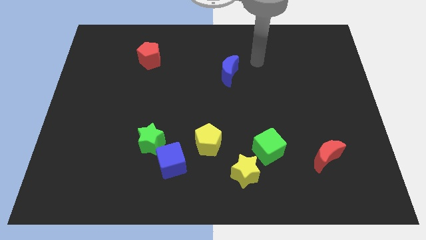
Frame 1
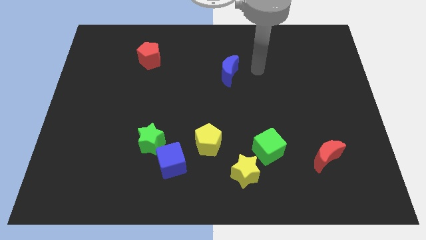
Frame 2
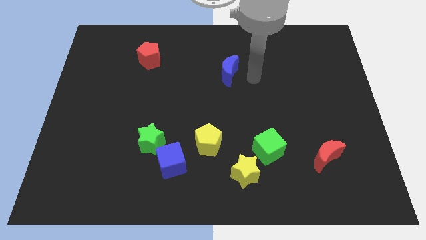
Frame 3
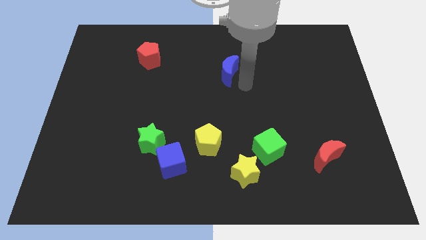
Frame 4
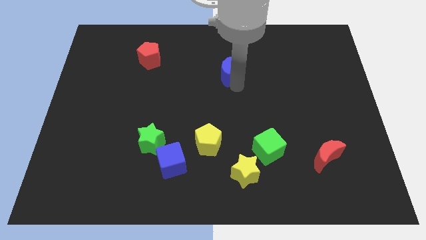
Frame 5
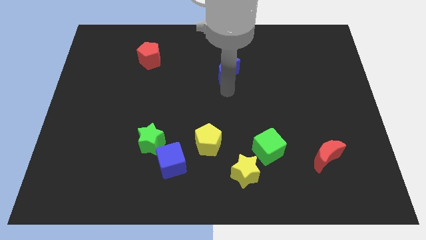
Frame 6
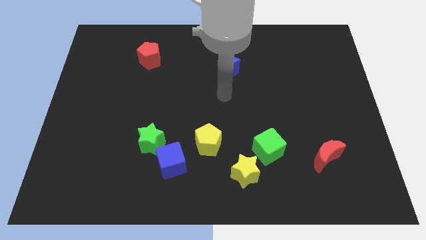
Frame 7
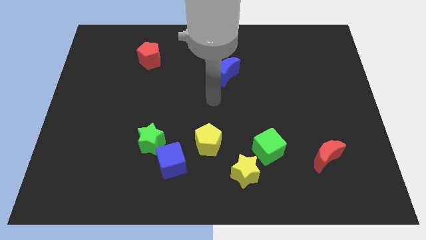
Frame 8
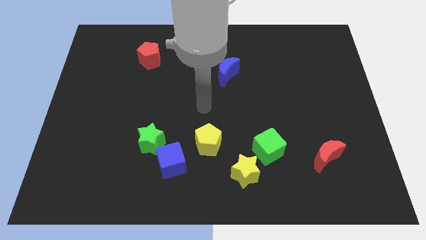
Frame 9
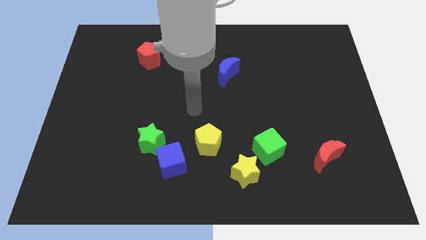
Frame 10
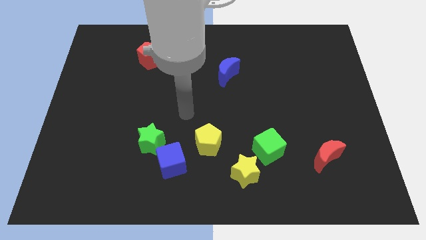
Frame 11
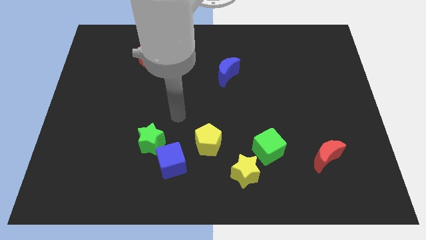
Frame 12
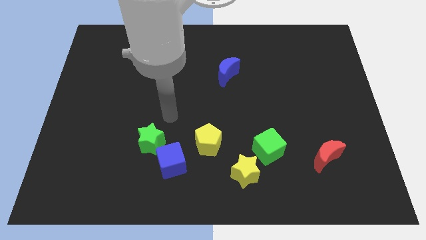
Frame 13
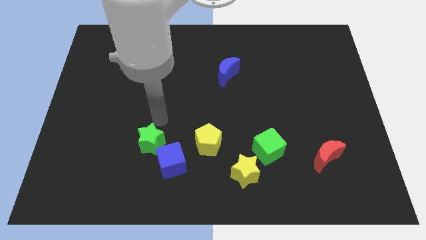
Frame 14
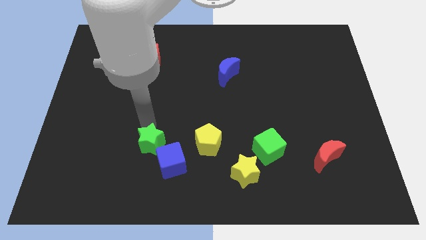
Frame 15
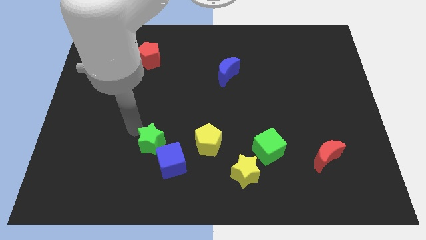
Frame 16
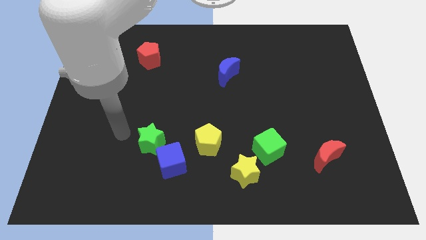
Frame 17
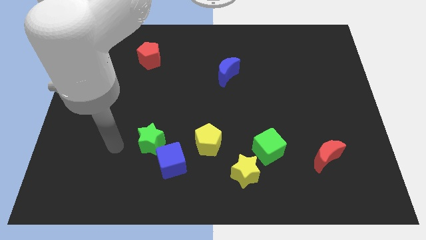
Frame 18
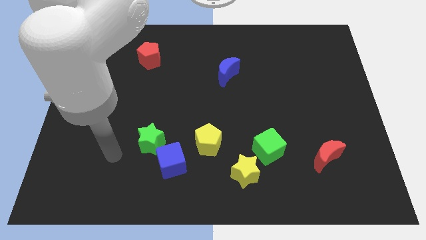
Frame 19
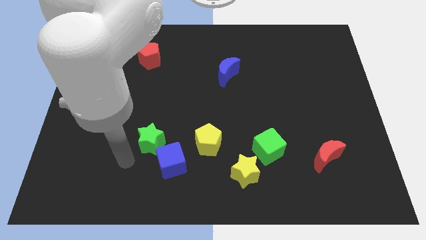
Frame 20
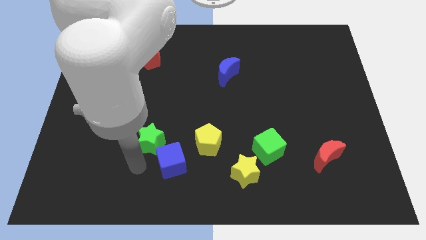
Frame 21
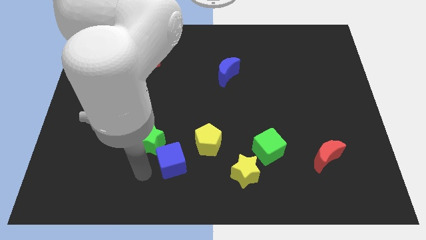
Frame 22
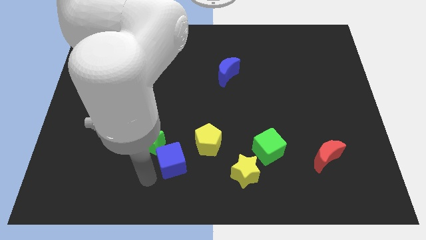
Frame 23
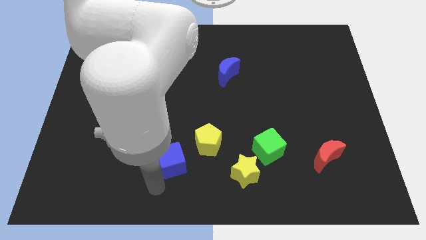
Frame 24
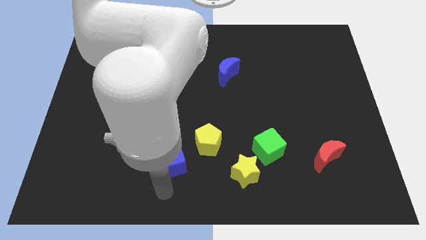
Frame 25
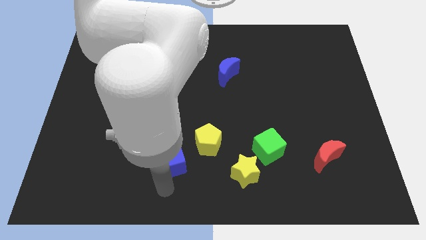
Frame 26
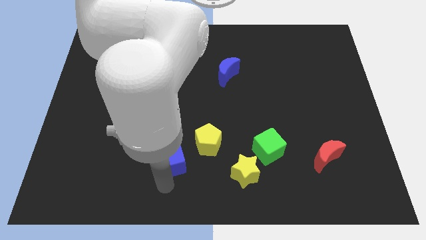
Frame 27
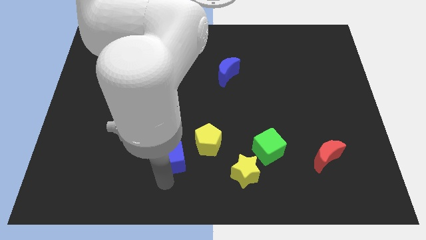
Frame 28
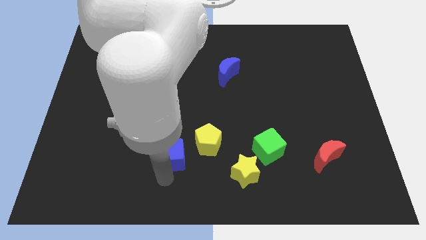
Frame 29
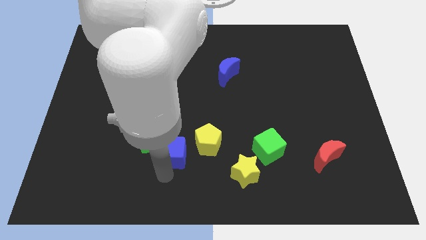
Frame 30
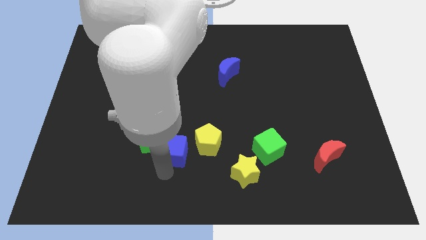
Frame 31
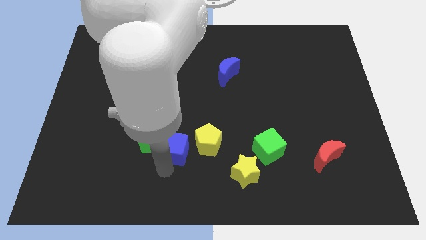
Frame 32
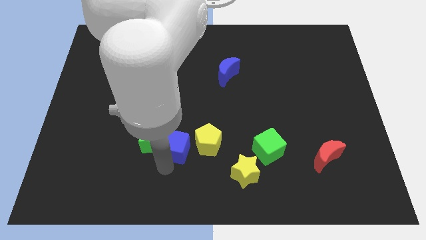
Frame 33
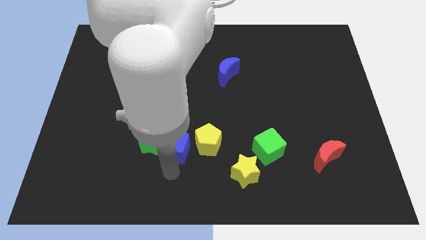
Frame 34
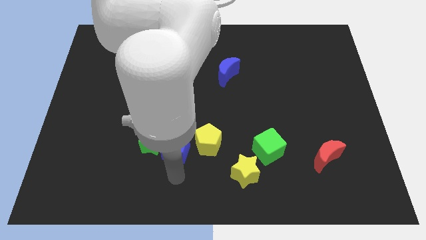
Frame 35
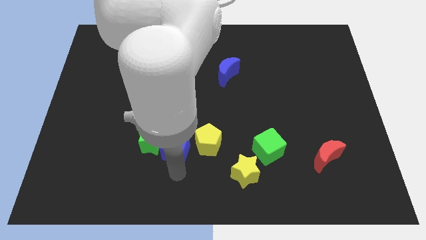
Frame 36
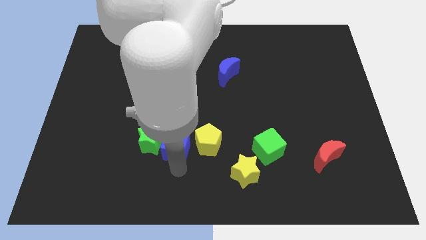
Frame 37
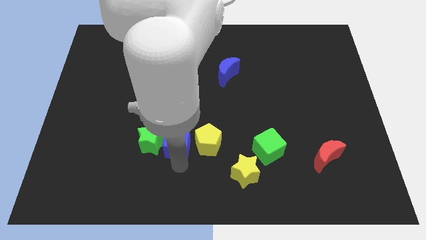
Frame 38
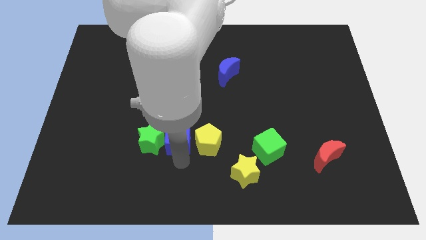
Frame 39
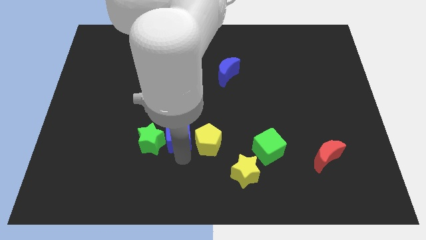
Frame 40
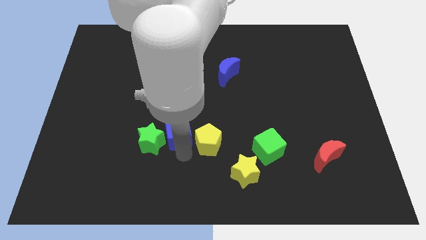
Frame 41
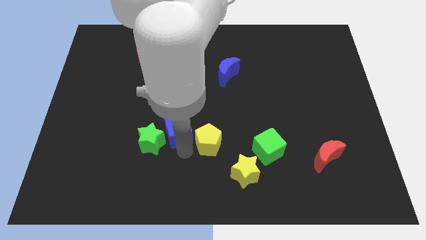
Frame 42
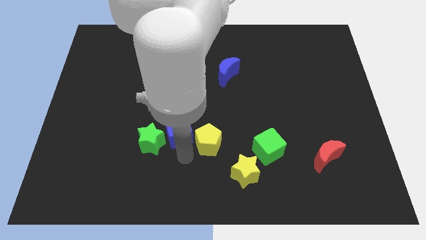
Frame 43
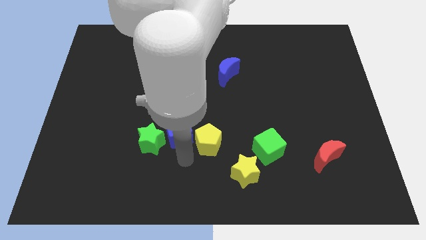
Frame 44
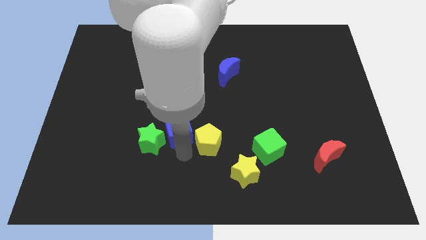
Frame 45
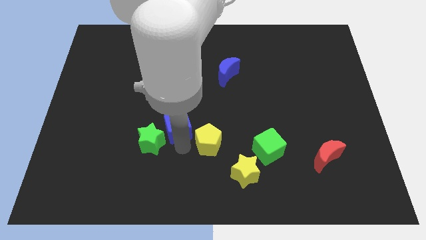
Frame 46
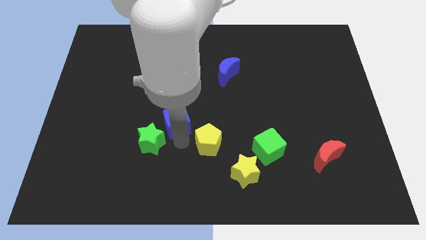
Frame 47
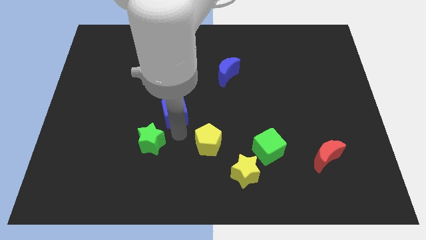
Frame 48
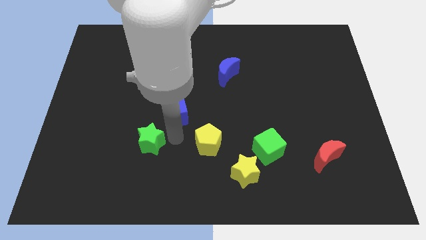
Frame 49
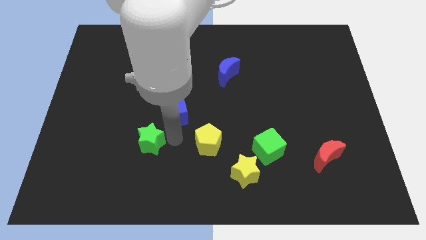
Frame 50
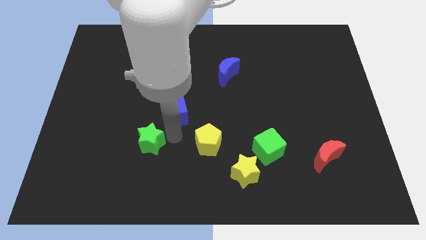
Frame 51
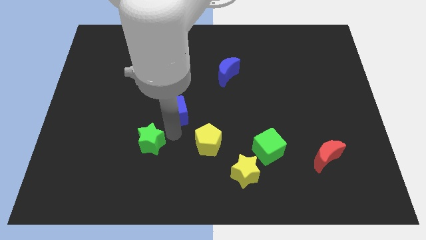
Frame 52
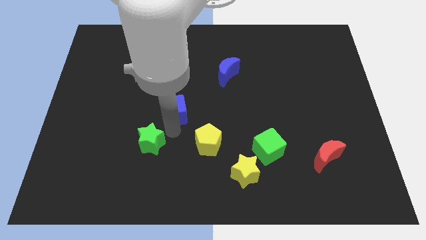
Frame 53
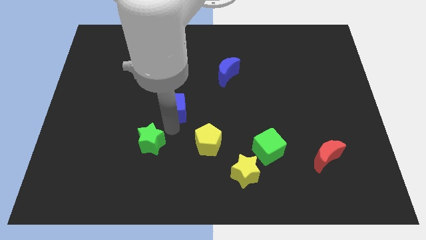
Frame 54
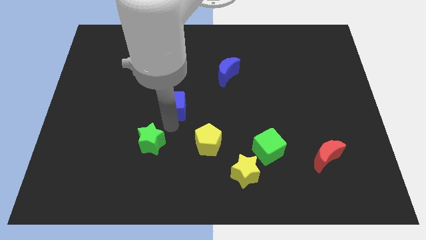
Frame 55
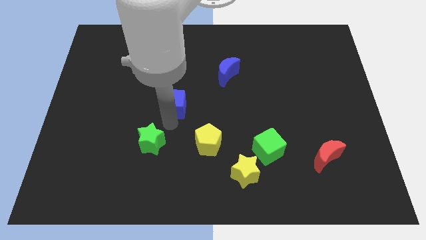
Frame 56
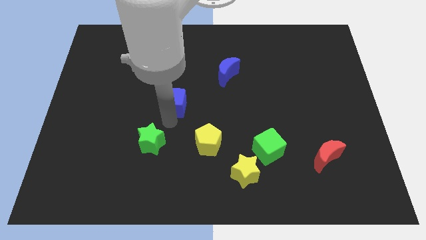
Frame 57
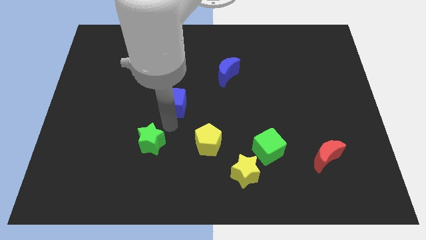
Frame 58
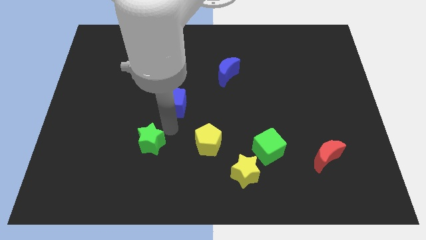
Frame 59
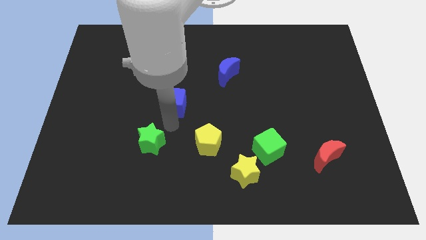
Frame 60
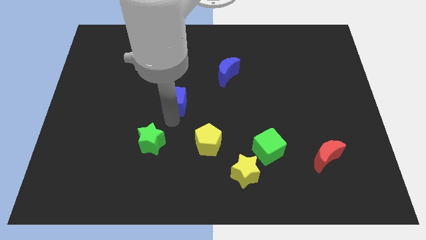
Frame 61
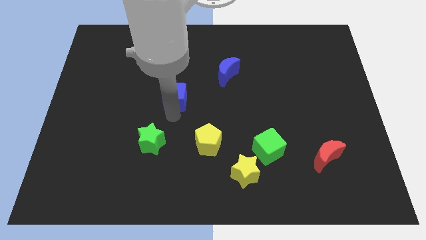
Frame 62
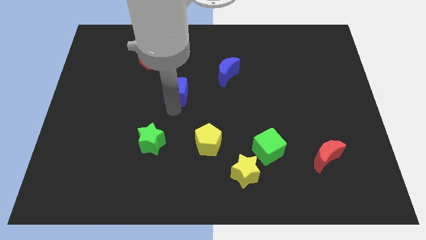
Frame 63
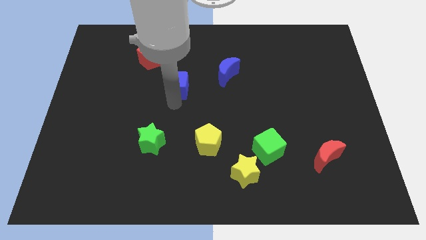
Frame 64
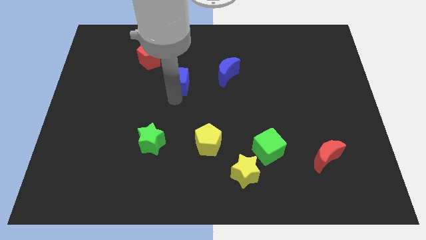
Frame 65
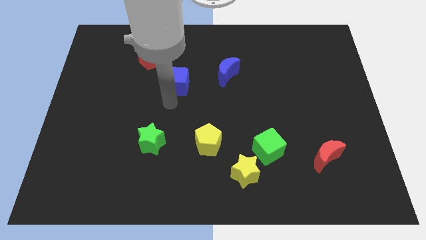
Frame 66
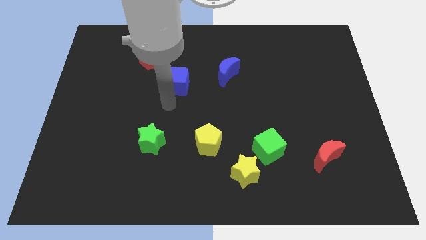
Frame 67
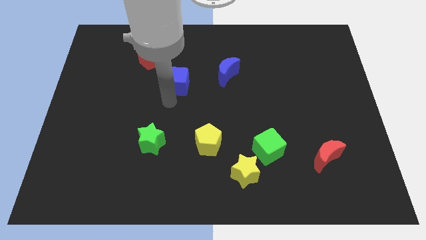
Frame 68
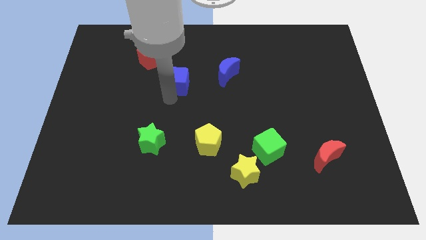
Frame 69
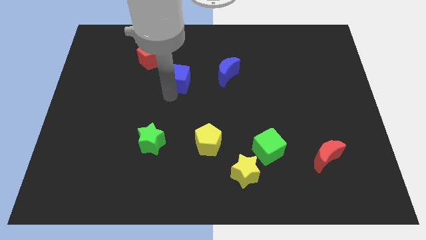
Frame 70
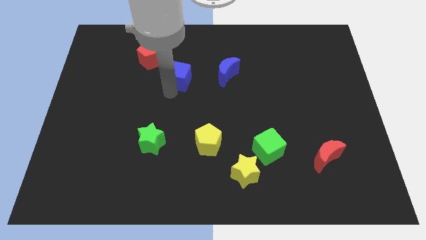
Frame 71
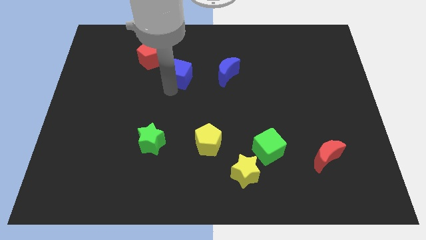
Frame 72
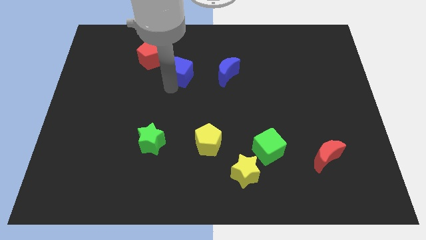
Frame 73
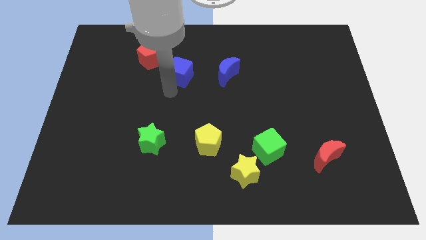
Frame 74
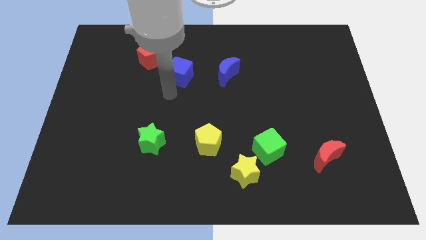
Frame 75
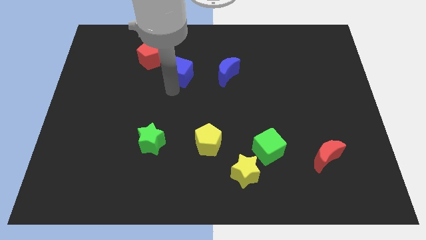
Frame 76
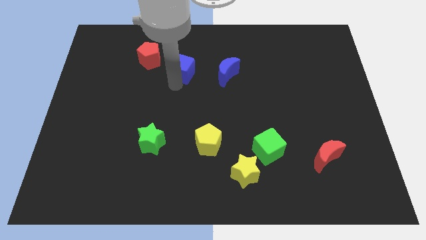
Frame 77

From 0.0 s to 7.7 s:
push the blue cube to the right side of the red pentagon
